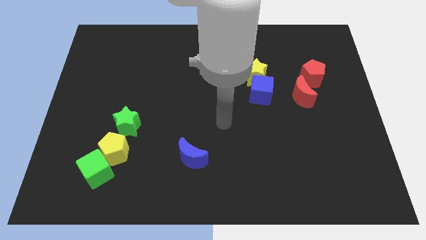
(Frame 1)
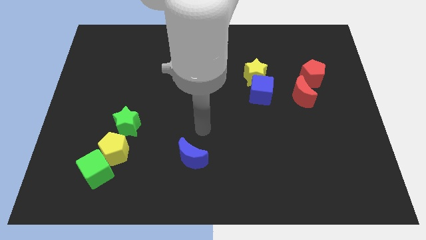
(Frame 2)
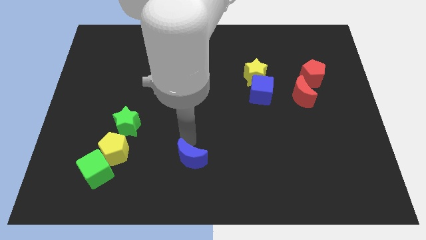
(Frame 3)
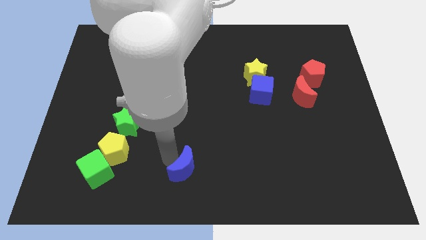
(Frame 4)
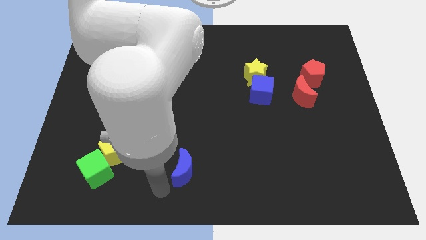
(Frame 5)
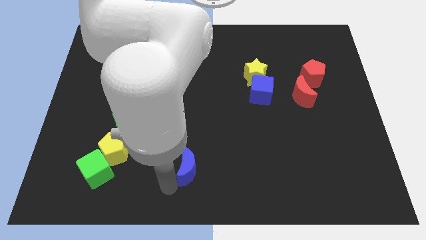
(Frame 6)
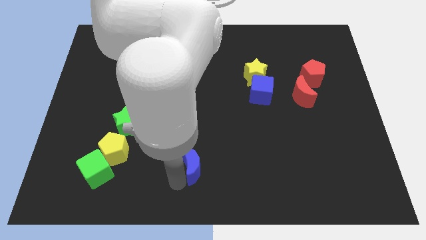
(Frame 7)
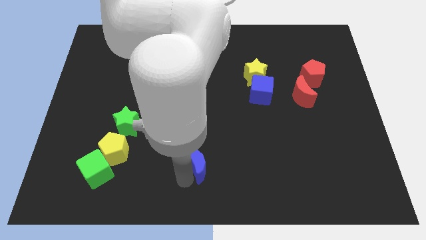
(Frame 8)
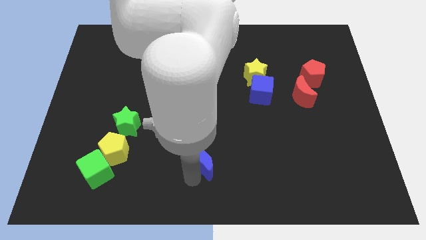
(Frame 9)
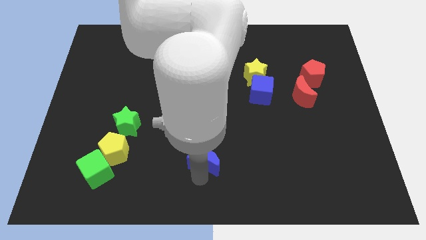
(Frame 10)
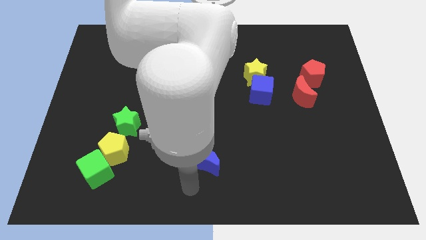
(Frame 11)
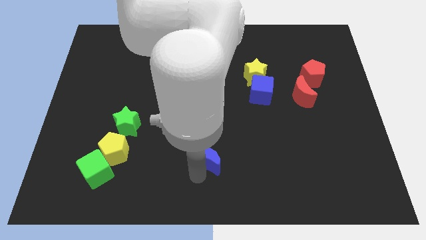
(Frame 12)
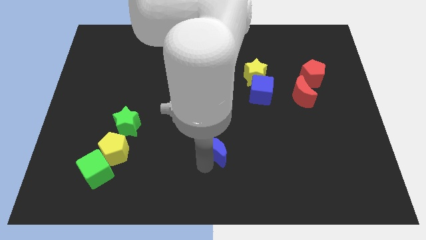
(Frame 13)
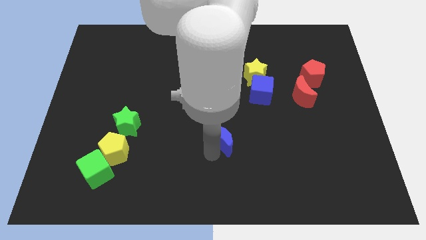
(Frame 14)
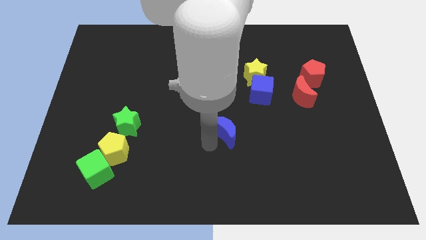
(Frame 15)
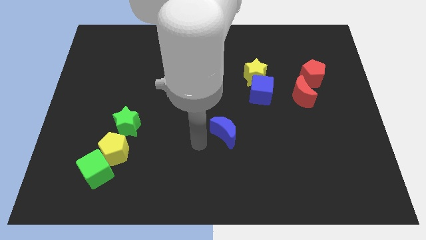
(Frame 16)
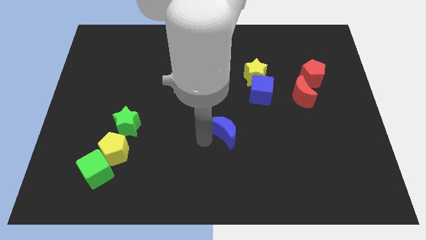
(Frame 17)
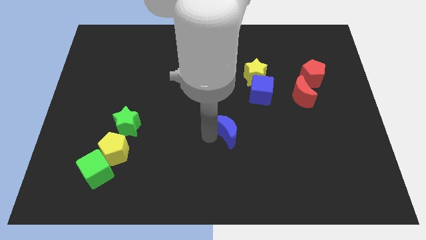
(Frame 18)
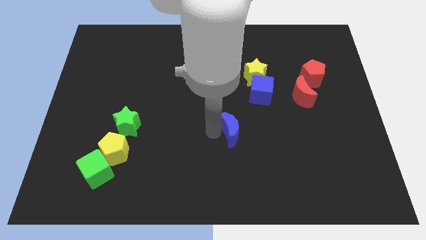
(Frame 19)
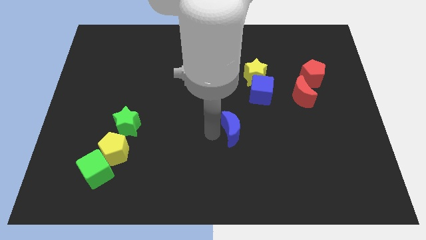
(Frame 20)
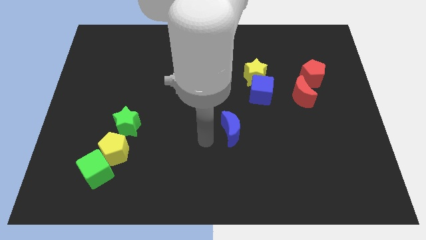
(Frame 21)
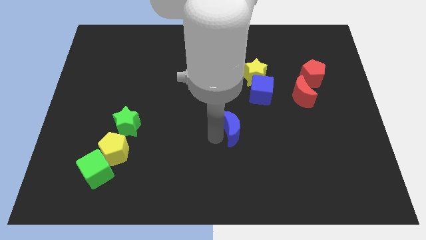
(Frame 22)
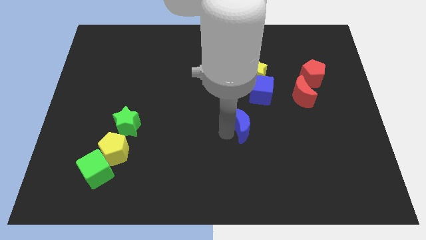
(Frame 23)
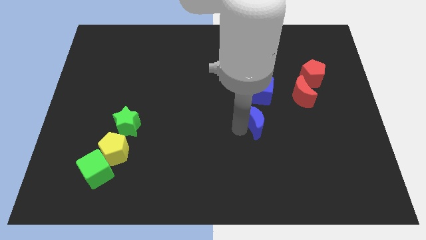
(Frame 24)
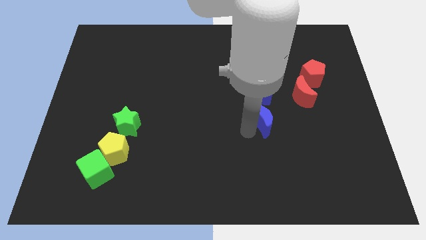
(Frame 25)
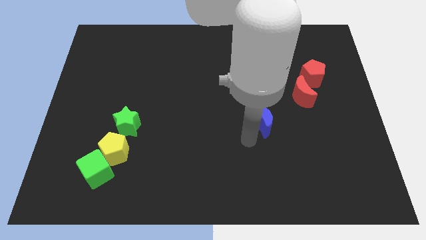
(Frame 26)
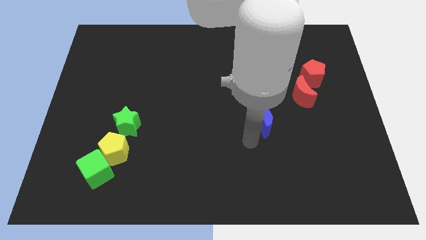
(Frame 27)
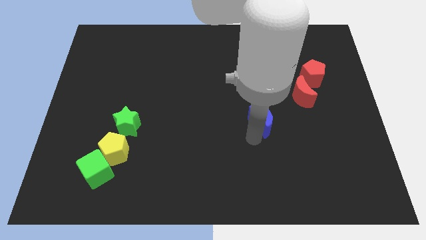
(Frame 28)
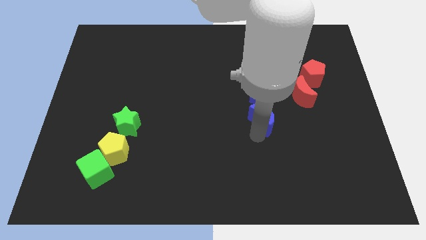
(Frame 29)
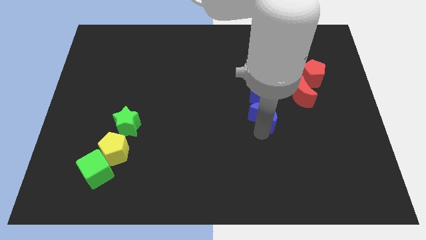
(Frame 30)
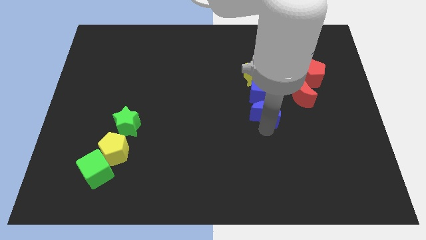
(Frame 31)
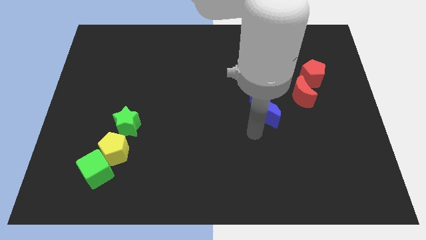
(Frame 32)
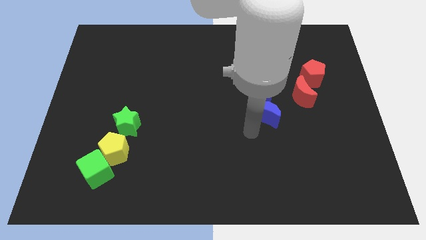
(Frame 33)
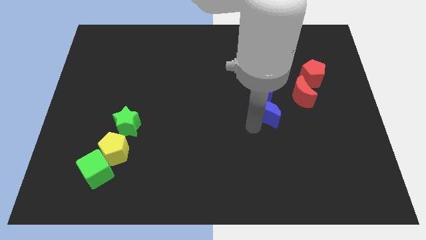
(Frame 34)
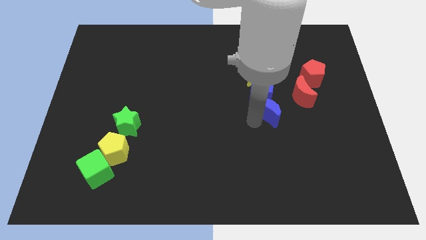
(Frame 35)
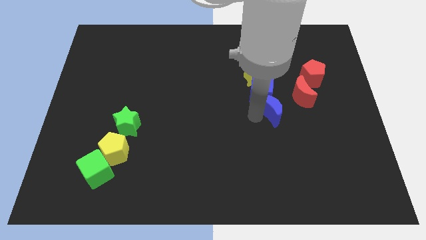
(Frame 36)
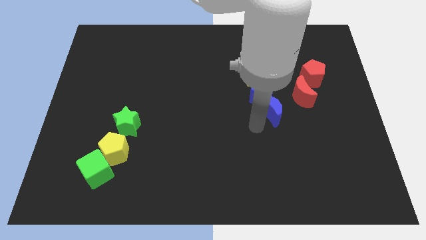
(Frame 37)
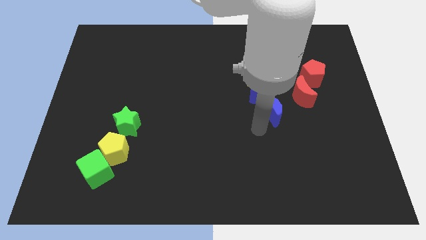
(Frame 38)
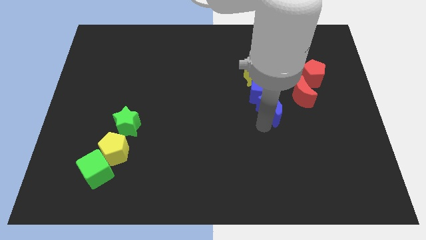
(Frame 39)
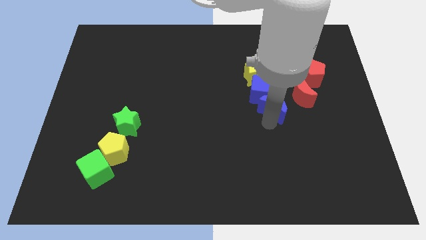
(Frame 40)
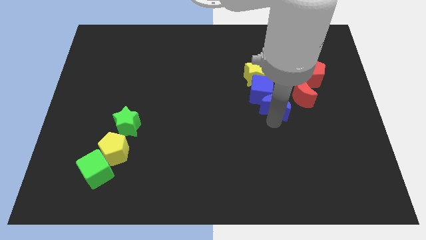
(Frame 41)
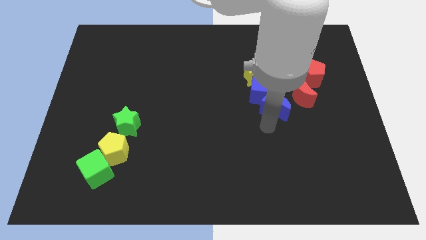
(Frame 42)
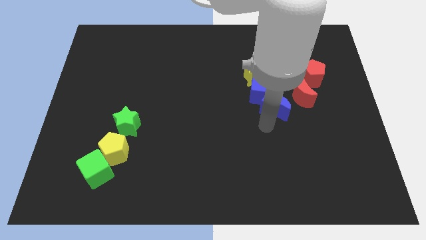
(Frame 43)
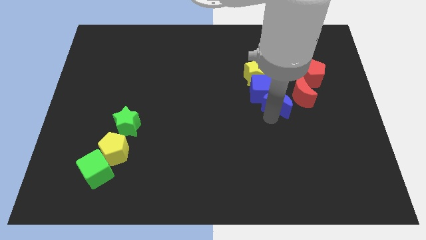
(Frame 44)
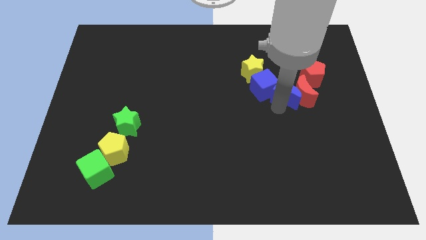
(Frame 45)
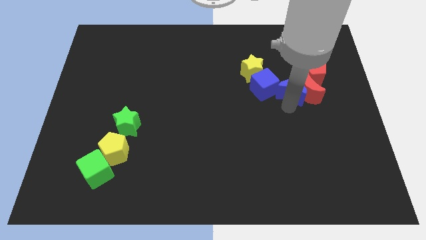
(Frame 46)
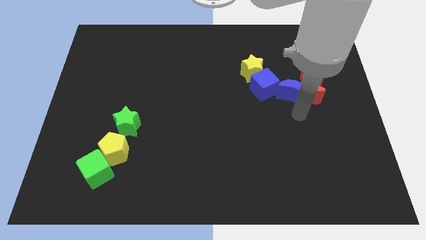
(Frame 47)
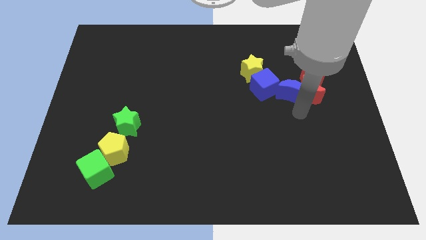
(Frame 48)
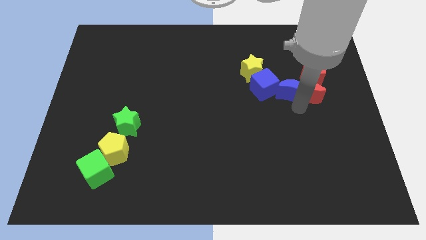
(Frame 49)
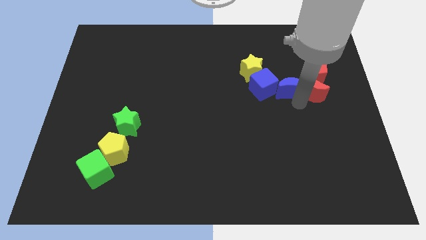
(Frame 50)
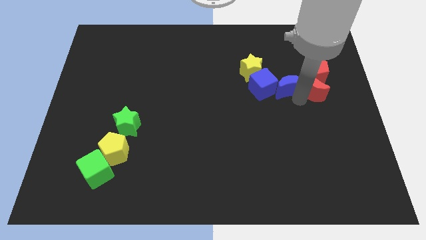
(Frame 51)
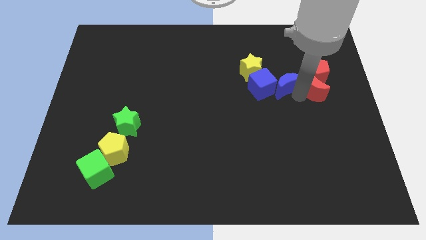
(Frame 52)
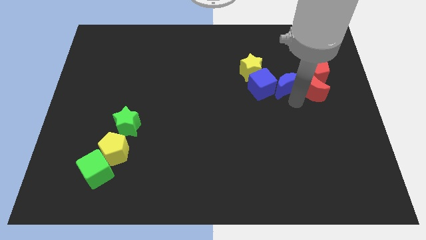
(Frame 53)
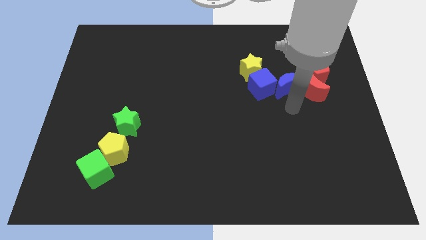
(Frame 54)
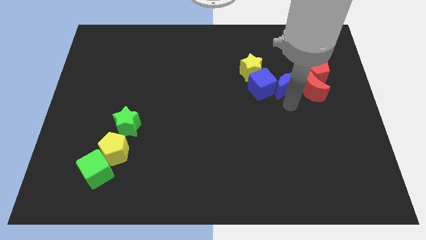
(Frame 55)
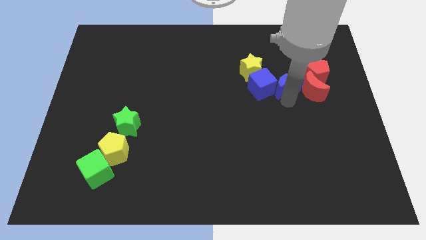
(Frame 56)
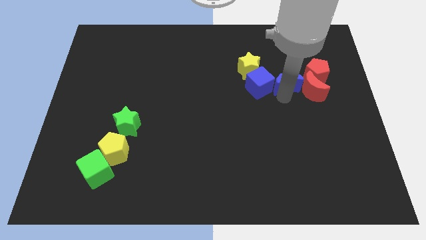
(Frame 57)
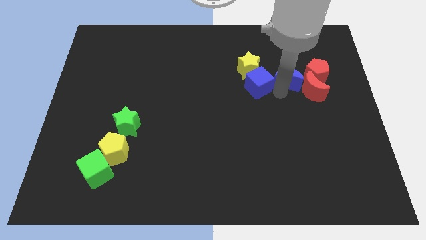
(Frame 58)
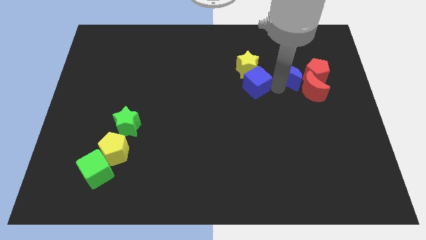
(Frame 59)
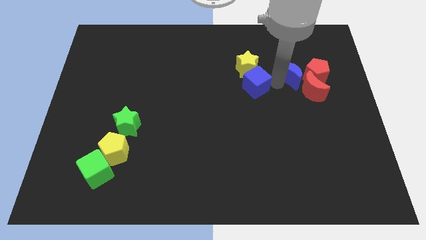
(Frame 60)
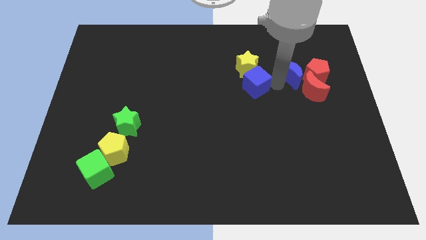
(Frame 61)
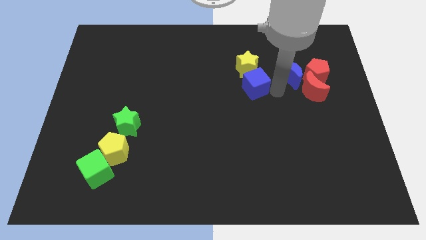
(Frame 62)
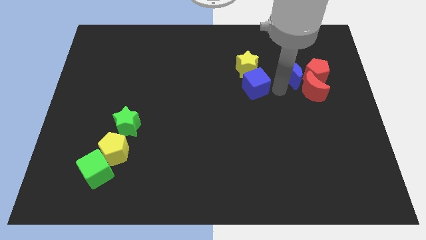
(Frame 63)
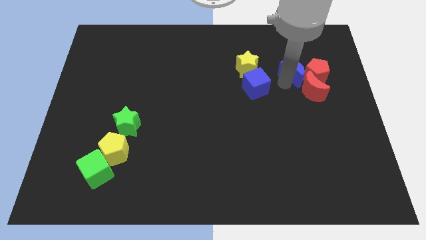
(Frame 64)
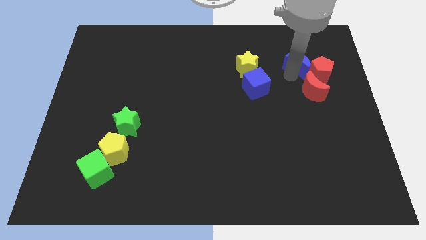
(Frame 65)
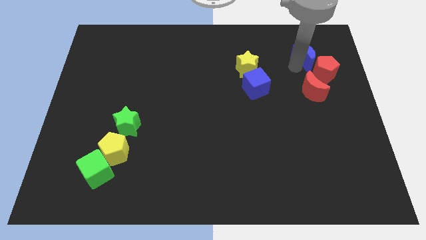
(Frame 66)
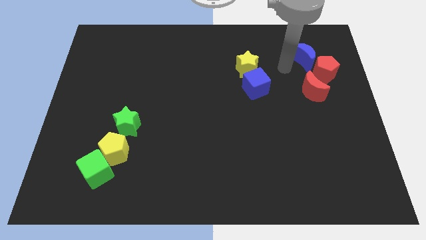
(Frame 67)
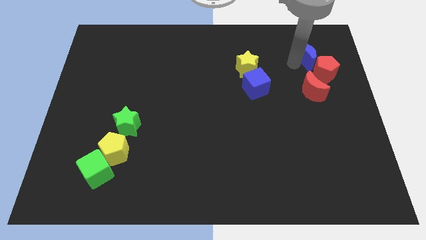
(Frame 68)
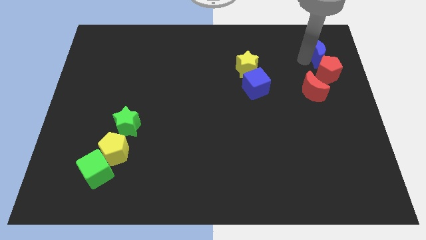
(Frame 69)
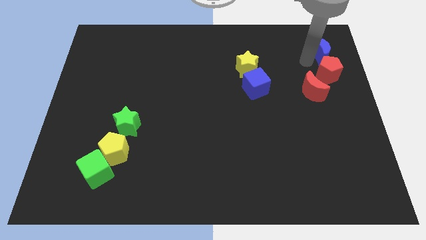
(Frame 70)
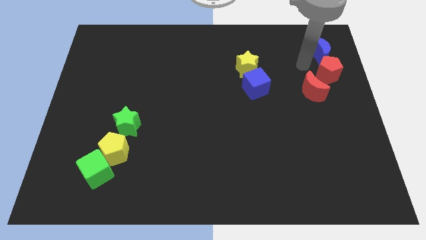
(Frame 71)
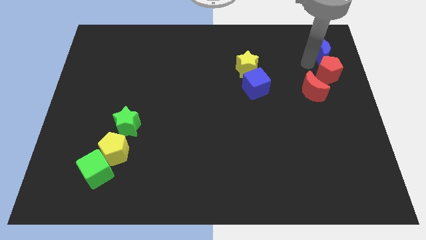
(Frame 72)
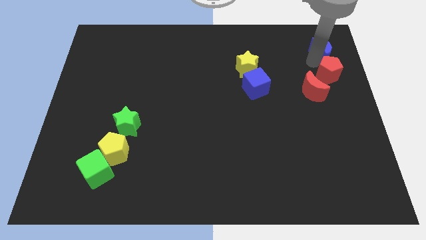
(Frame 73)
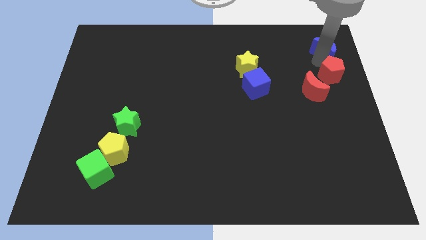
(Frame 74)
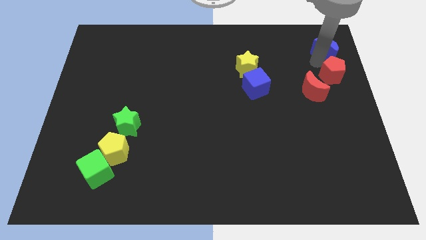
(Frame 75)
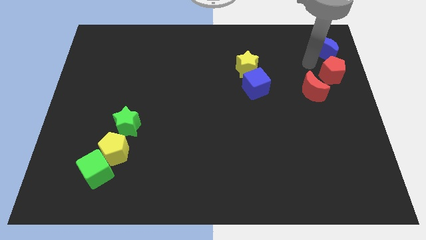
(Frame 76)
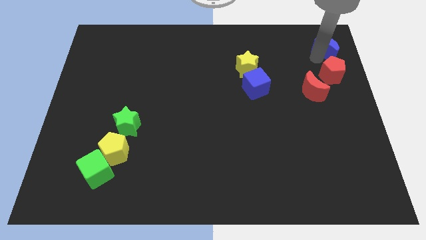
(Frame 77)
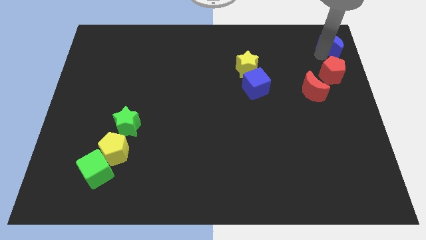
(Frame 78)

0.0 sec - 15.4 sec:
put the blue moon to the top right corner
